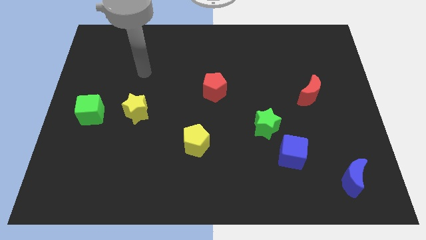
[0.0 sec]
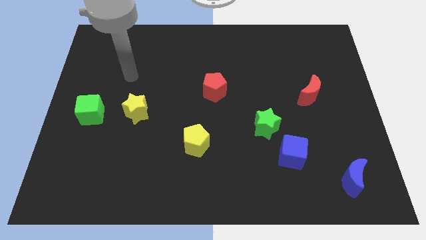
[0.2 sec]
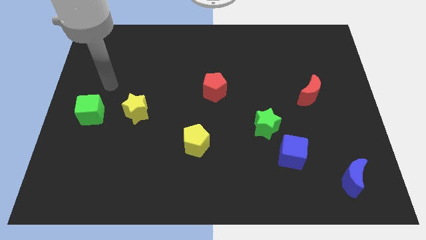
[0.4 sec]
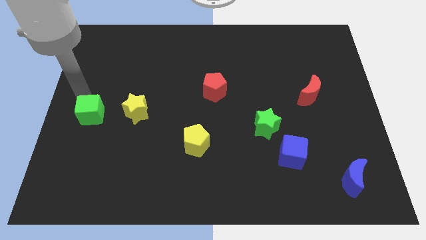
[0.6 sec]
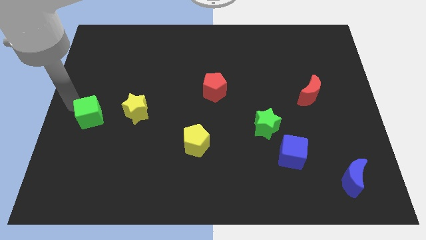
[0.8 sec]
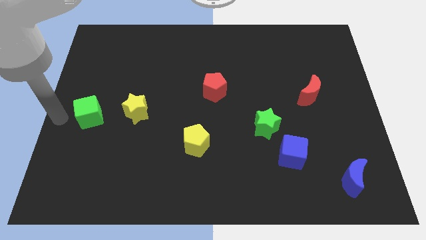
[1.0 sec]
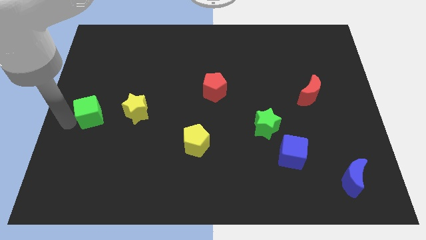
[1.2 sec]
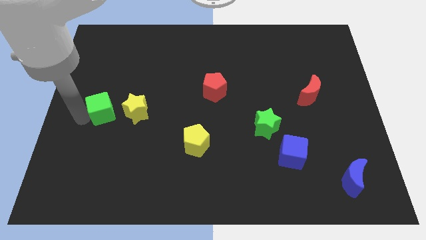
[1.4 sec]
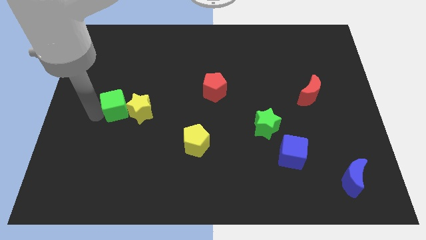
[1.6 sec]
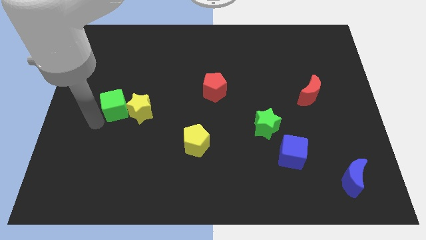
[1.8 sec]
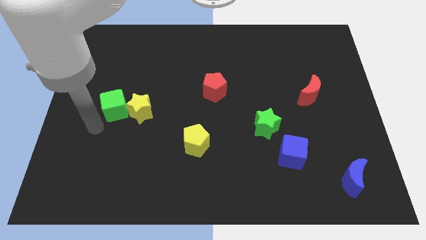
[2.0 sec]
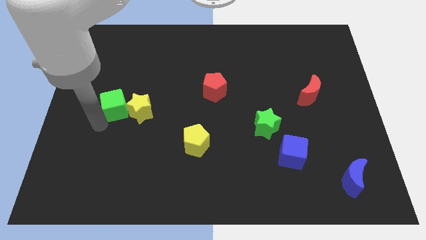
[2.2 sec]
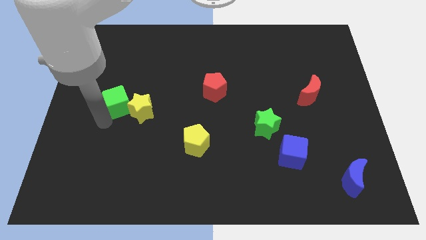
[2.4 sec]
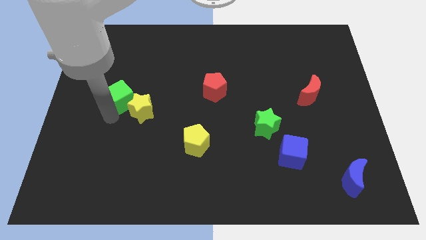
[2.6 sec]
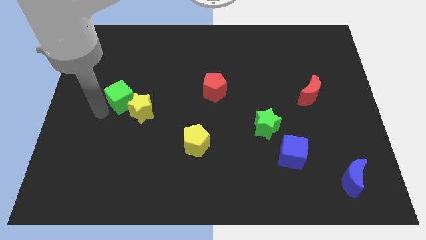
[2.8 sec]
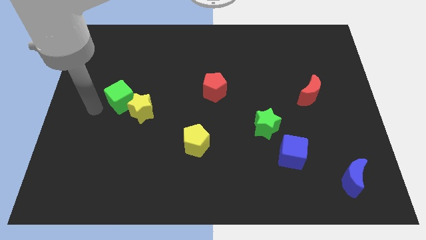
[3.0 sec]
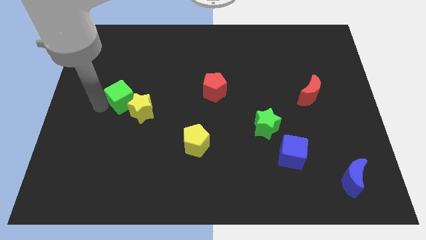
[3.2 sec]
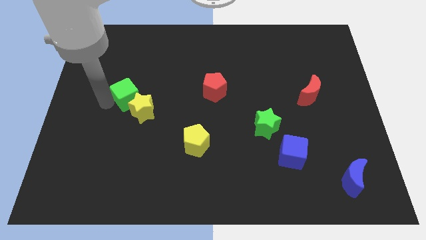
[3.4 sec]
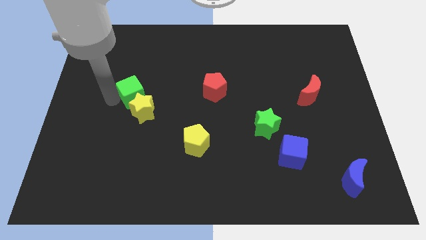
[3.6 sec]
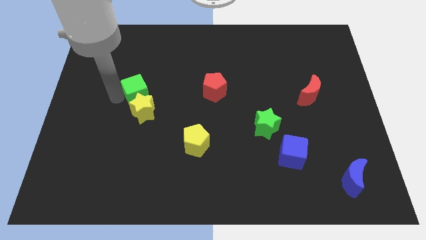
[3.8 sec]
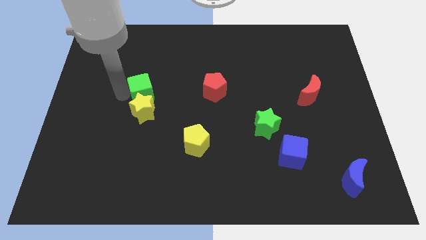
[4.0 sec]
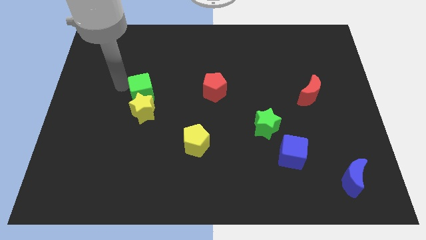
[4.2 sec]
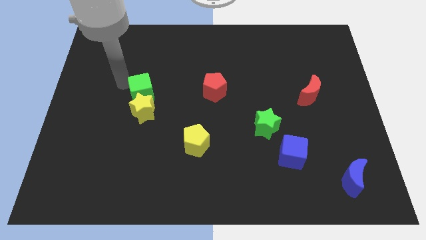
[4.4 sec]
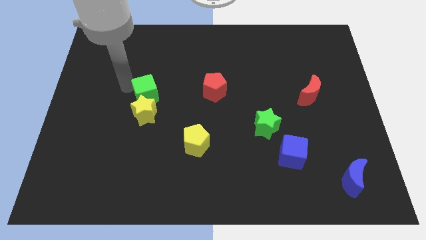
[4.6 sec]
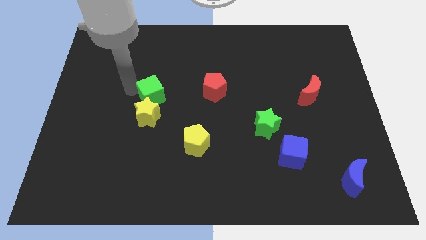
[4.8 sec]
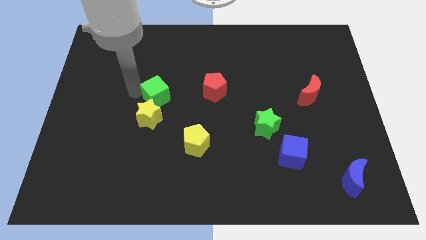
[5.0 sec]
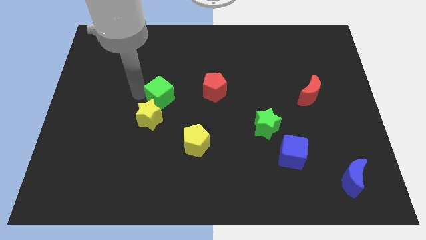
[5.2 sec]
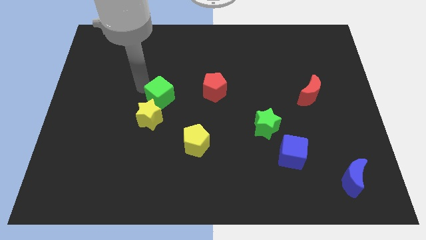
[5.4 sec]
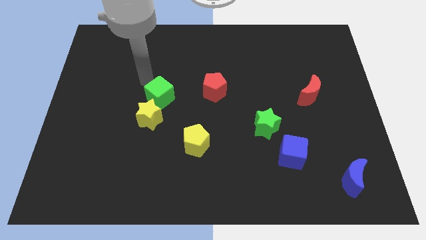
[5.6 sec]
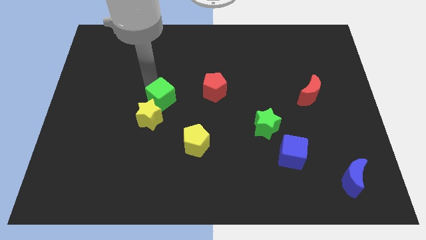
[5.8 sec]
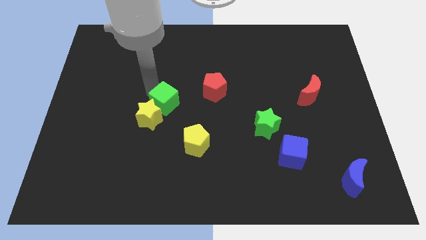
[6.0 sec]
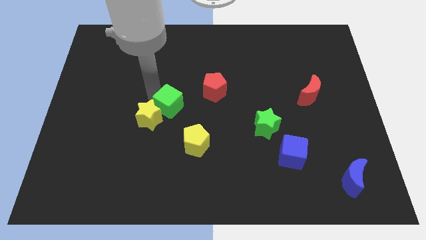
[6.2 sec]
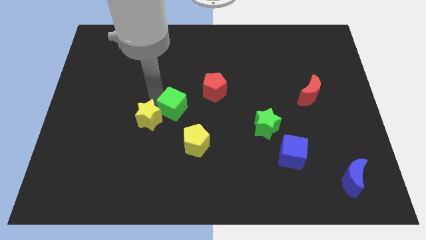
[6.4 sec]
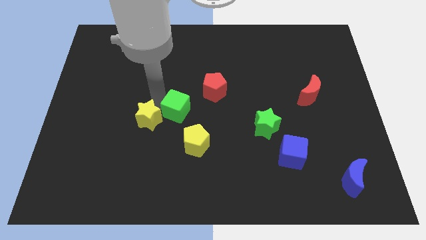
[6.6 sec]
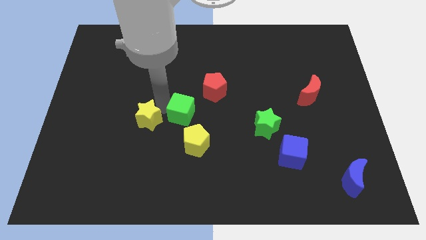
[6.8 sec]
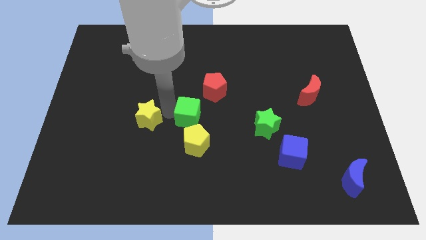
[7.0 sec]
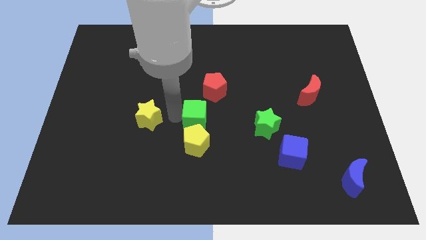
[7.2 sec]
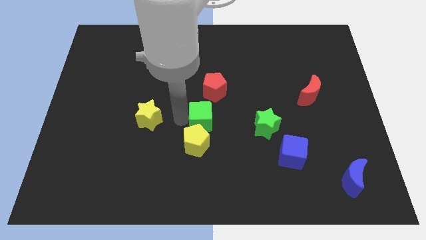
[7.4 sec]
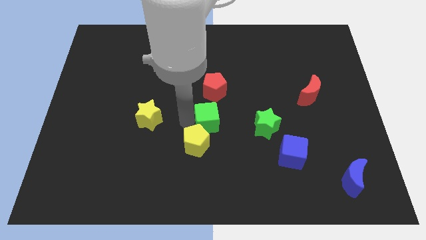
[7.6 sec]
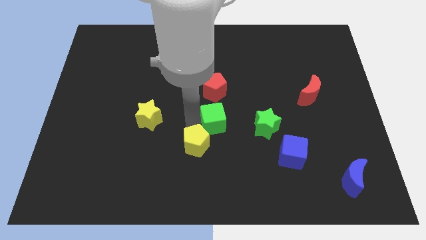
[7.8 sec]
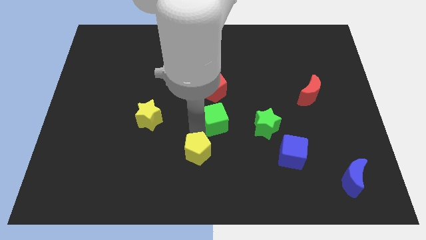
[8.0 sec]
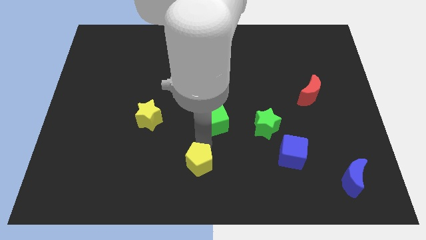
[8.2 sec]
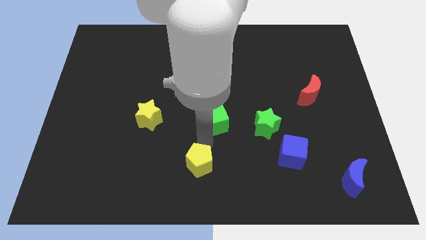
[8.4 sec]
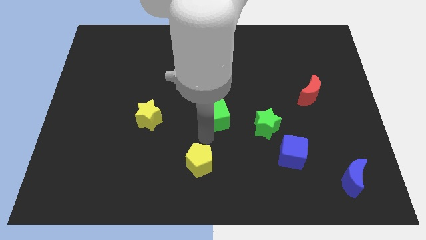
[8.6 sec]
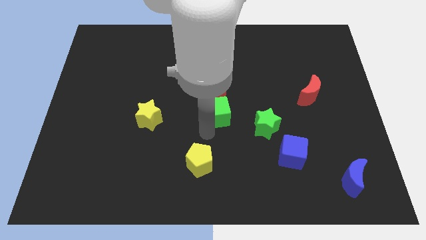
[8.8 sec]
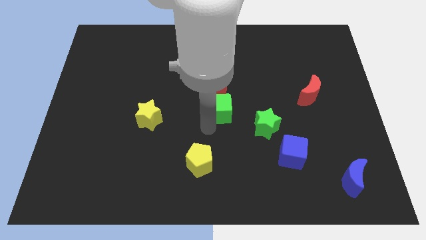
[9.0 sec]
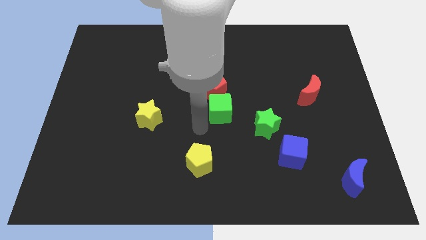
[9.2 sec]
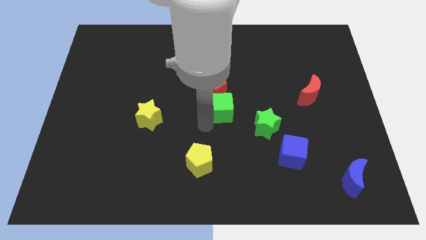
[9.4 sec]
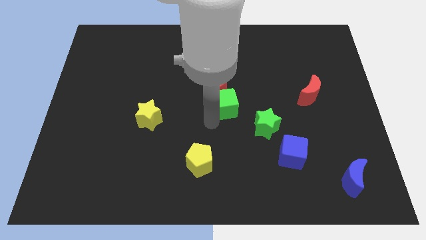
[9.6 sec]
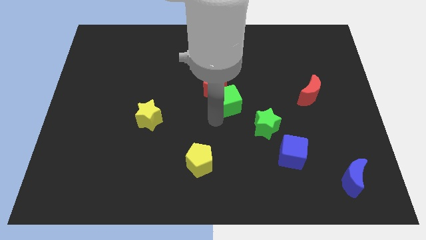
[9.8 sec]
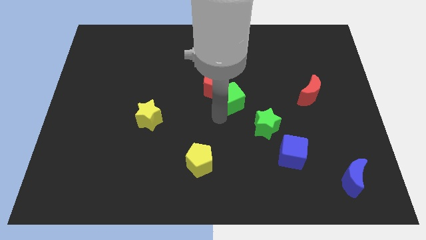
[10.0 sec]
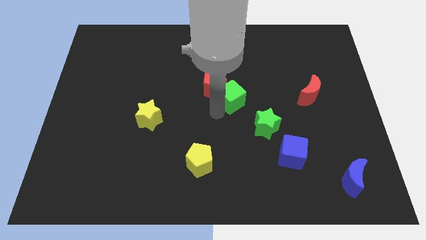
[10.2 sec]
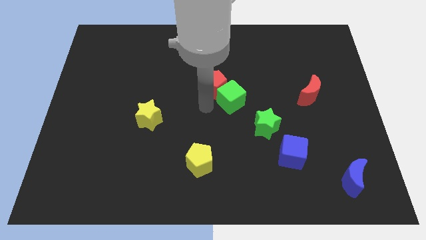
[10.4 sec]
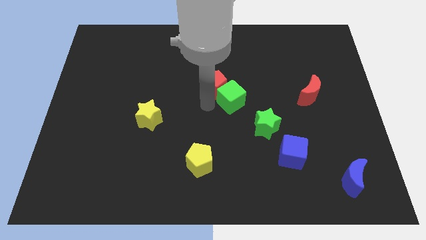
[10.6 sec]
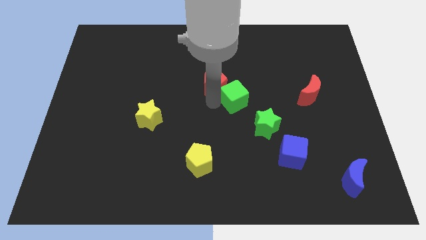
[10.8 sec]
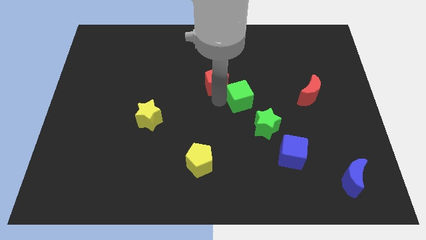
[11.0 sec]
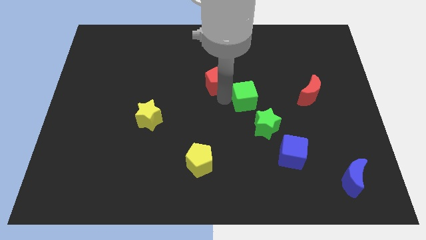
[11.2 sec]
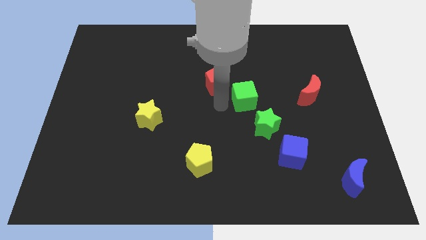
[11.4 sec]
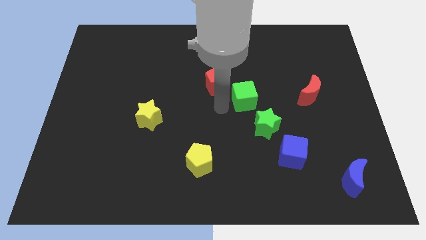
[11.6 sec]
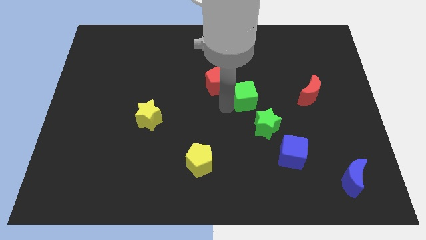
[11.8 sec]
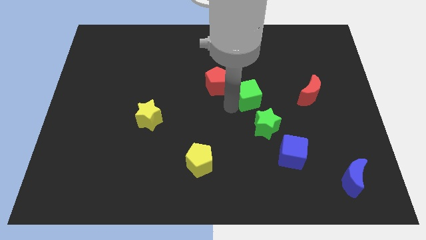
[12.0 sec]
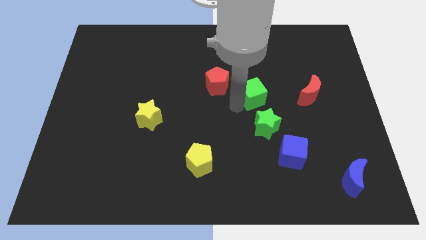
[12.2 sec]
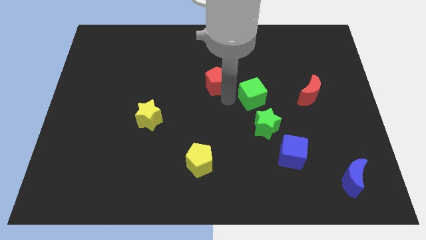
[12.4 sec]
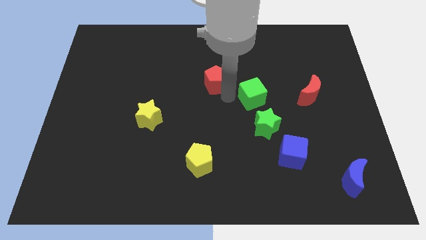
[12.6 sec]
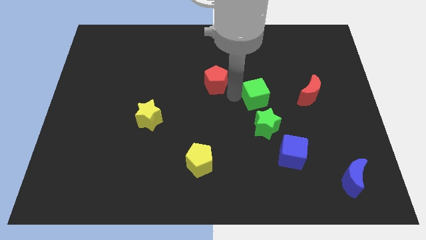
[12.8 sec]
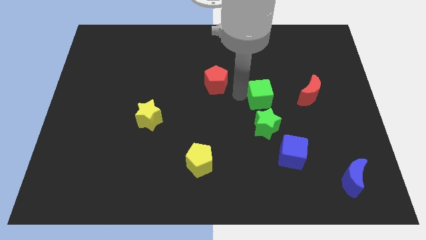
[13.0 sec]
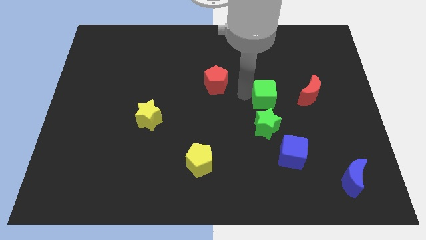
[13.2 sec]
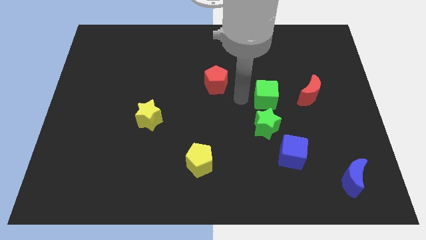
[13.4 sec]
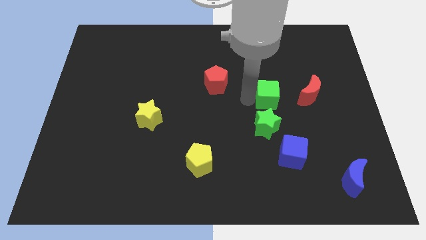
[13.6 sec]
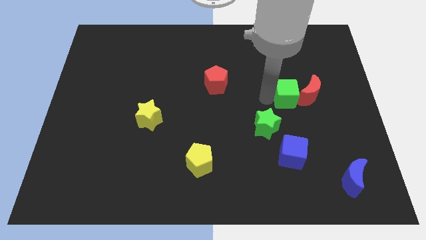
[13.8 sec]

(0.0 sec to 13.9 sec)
slide the green cube next to the red moon

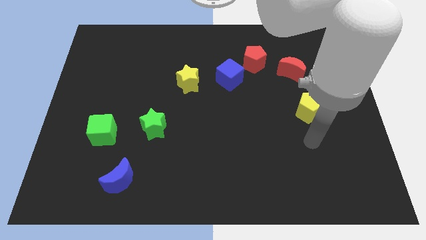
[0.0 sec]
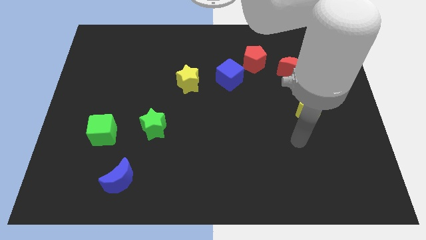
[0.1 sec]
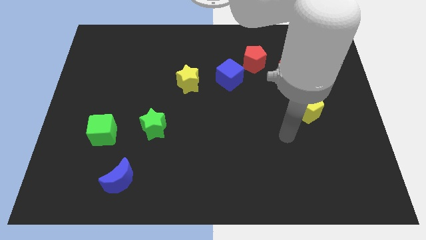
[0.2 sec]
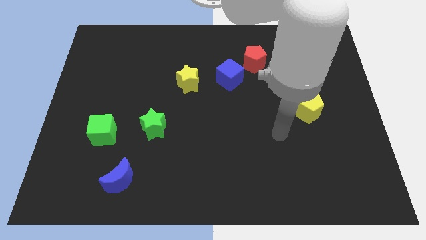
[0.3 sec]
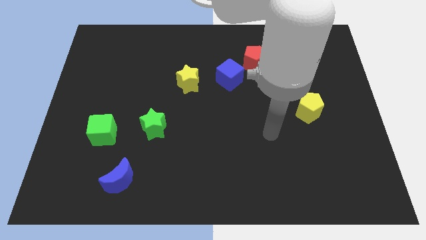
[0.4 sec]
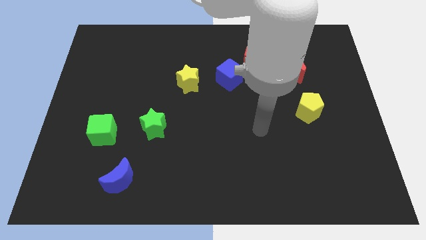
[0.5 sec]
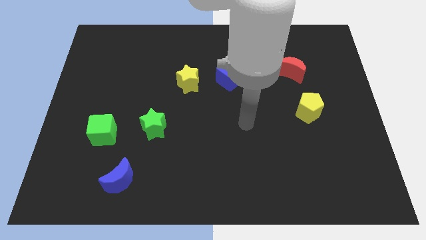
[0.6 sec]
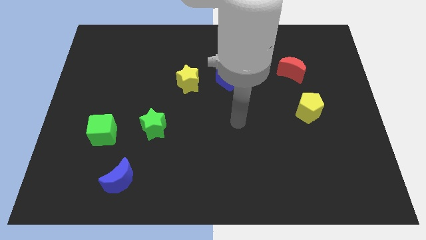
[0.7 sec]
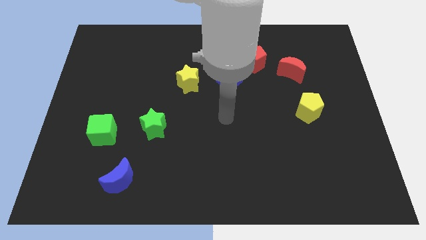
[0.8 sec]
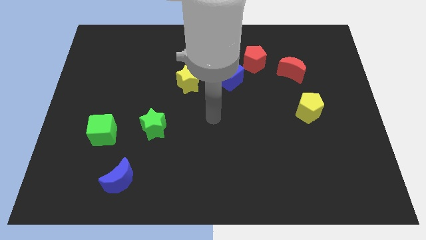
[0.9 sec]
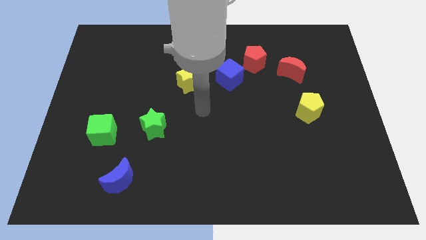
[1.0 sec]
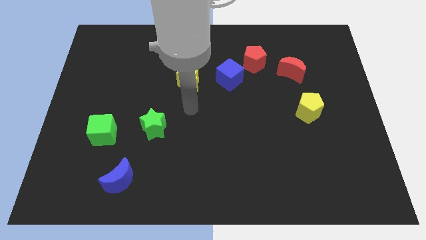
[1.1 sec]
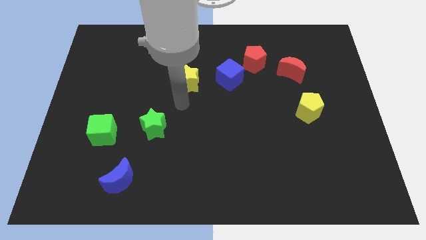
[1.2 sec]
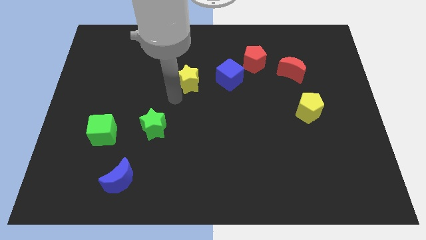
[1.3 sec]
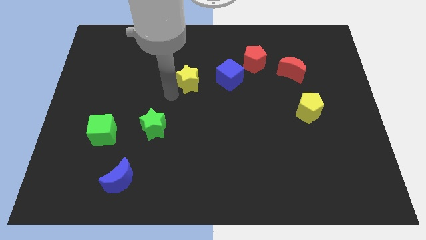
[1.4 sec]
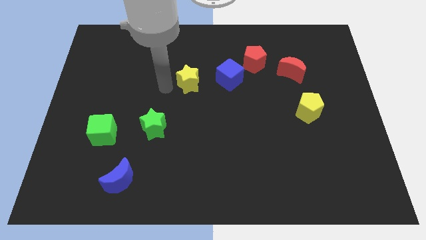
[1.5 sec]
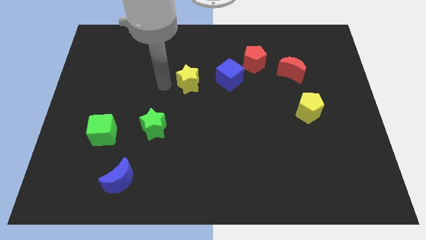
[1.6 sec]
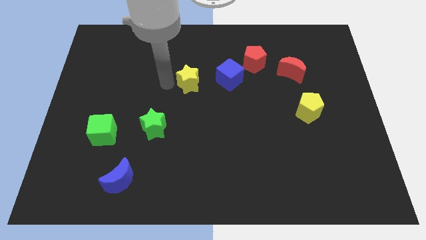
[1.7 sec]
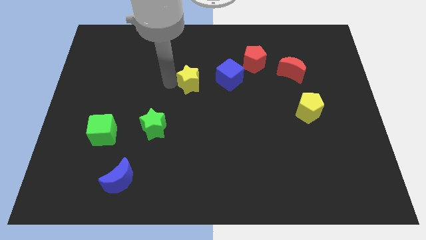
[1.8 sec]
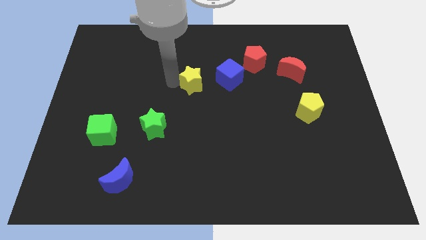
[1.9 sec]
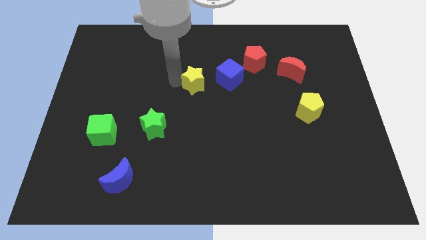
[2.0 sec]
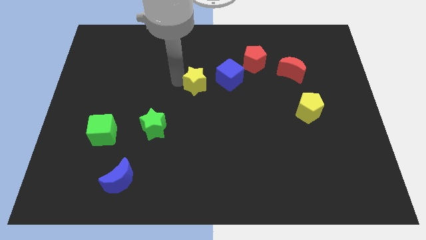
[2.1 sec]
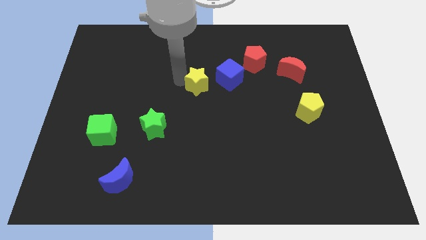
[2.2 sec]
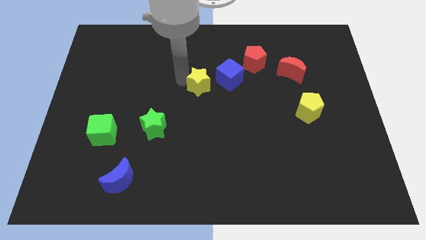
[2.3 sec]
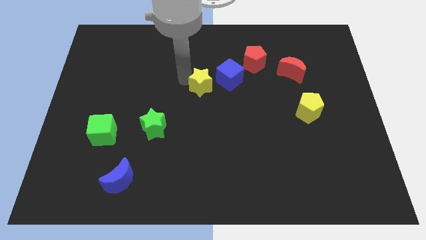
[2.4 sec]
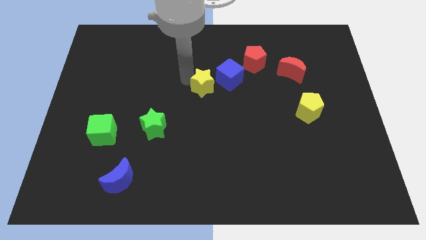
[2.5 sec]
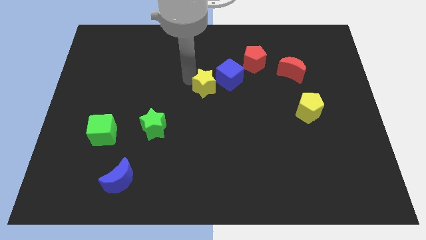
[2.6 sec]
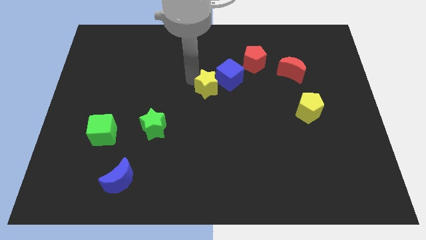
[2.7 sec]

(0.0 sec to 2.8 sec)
put the yellow star towards the blue cube
